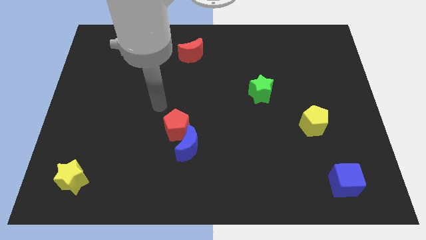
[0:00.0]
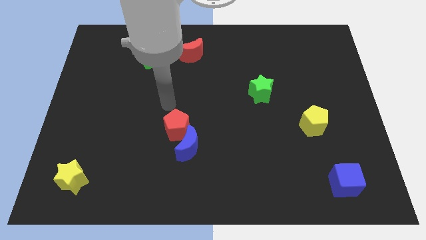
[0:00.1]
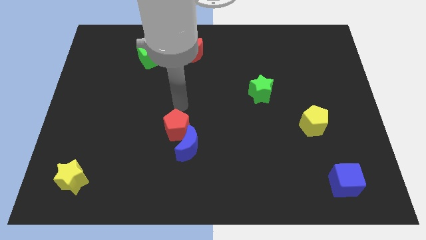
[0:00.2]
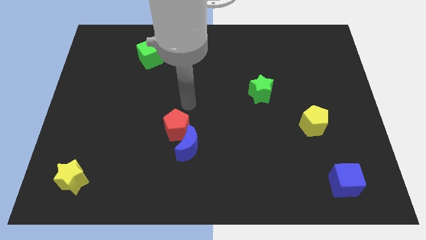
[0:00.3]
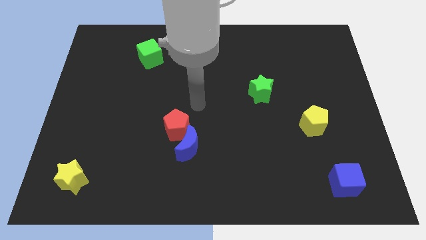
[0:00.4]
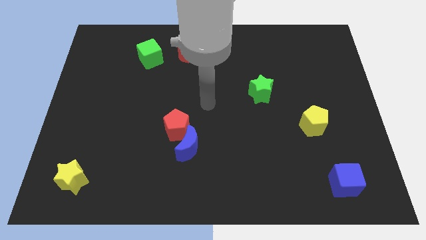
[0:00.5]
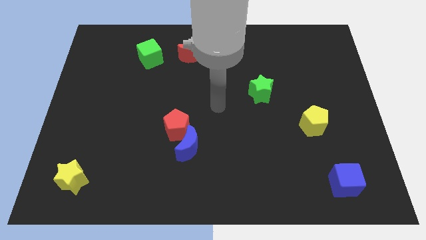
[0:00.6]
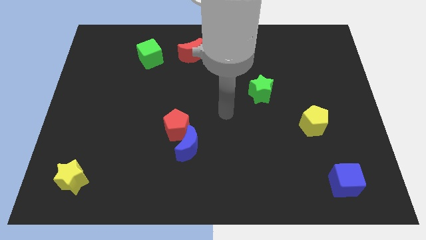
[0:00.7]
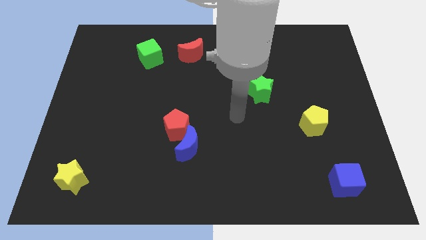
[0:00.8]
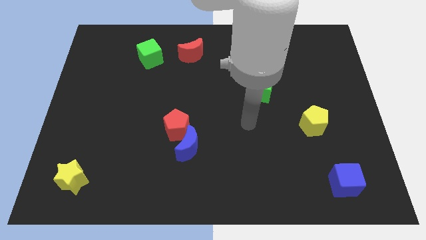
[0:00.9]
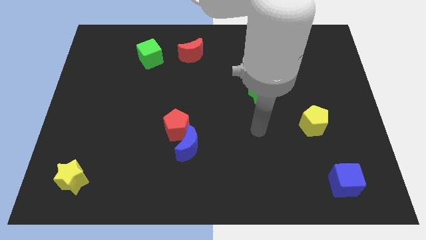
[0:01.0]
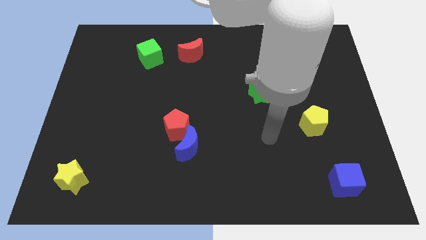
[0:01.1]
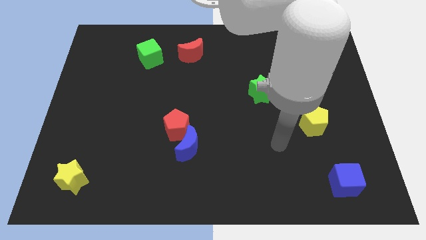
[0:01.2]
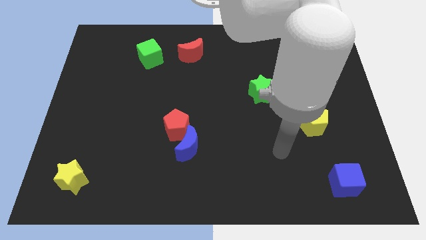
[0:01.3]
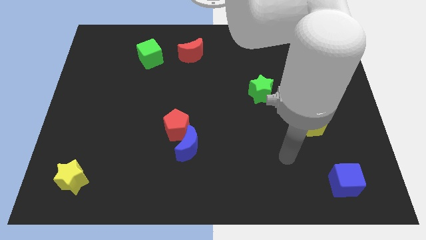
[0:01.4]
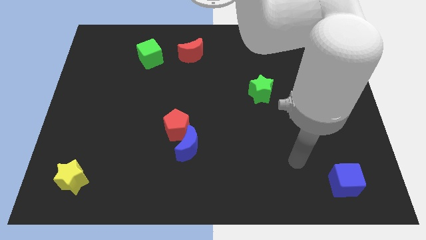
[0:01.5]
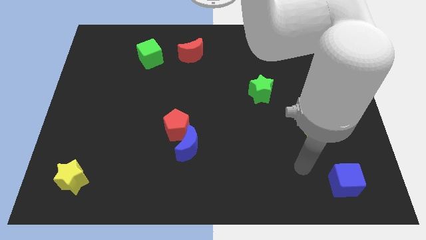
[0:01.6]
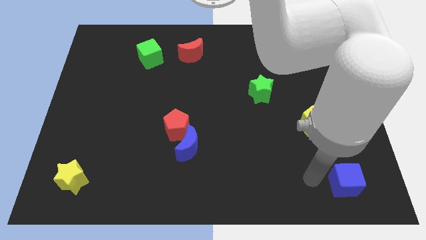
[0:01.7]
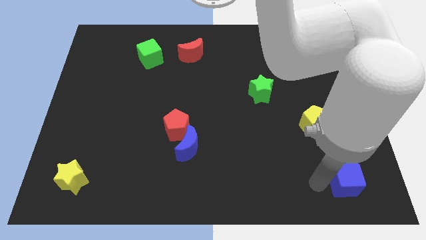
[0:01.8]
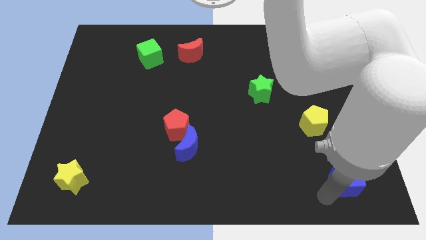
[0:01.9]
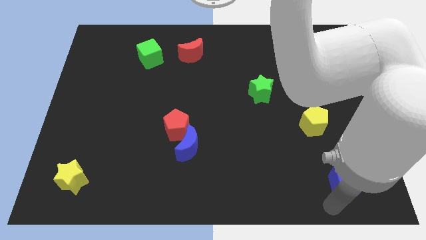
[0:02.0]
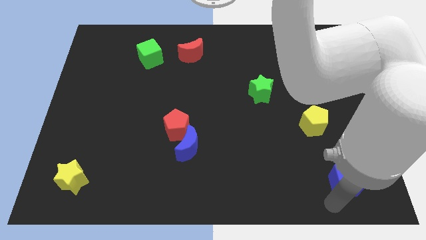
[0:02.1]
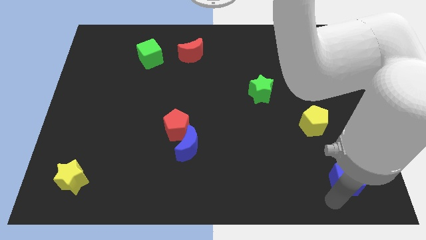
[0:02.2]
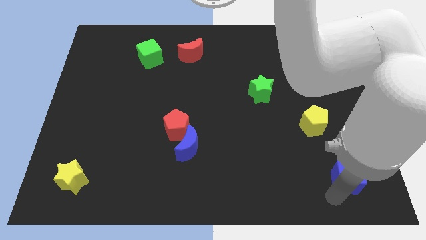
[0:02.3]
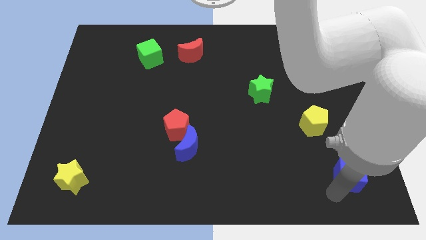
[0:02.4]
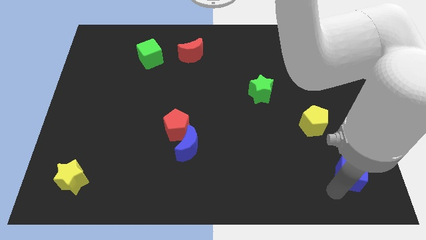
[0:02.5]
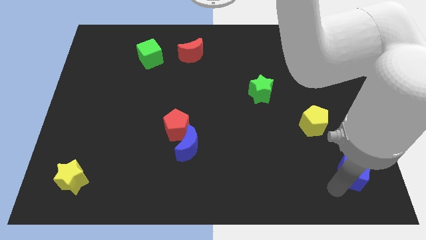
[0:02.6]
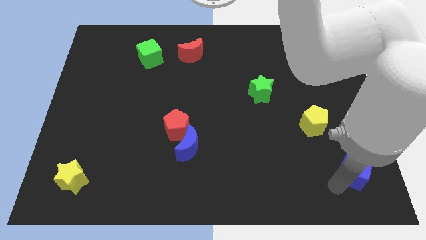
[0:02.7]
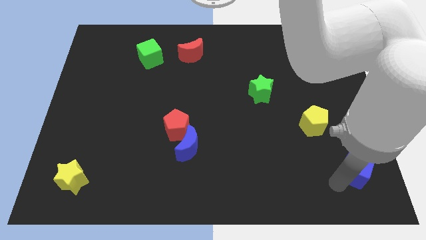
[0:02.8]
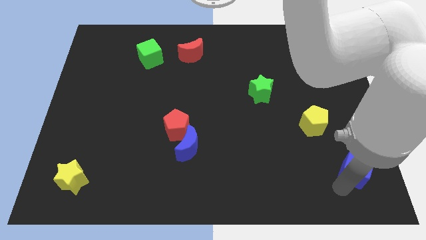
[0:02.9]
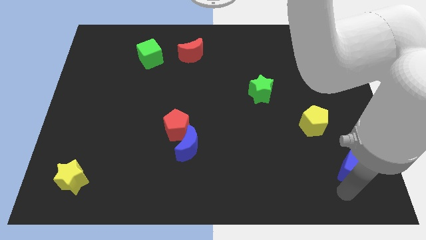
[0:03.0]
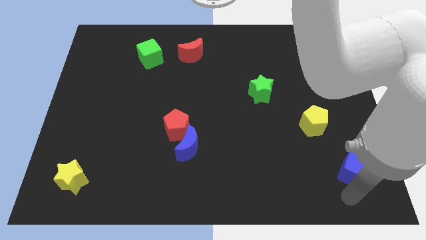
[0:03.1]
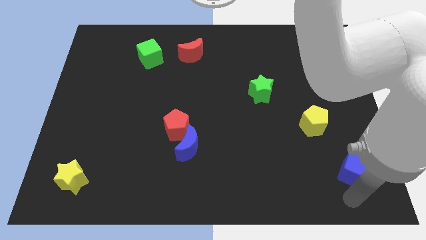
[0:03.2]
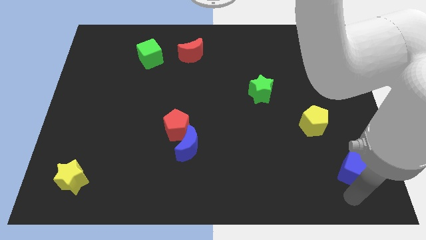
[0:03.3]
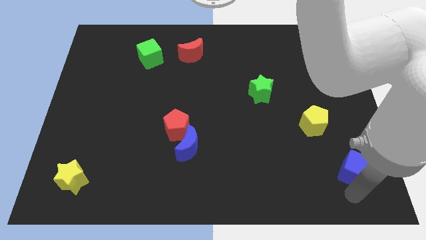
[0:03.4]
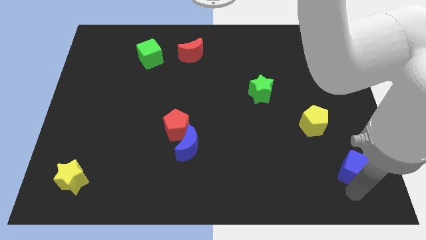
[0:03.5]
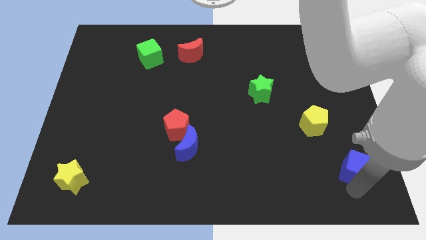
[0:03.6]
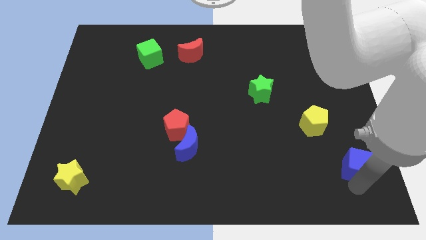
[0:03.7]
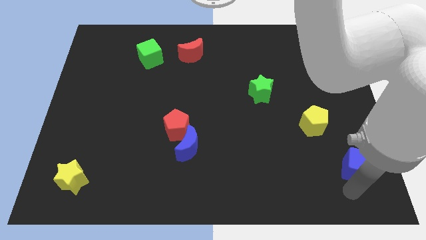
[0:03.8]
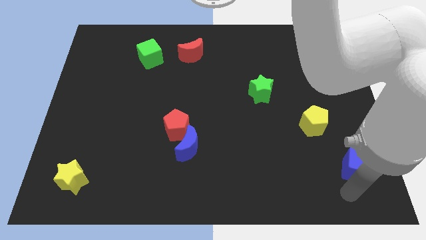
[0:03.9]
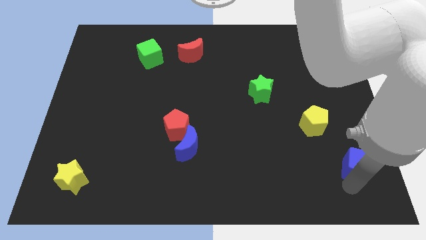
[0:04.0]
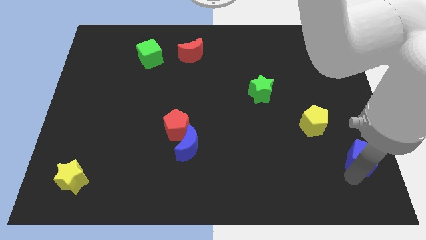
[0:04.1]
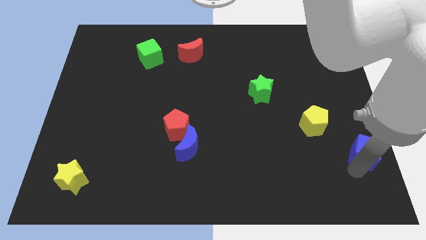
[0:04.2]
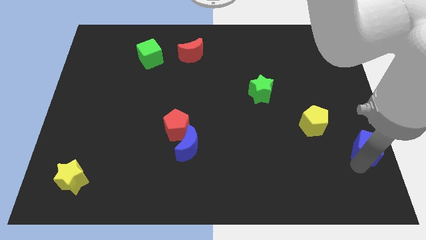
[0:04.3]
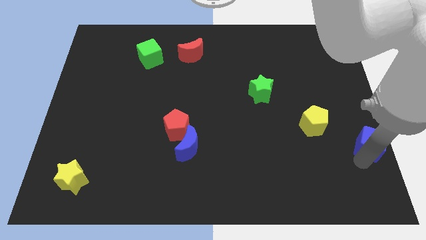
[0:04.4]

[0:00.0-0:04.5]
move the blue cube to the right side of the board

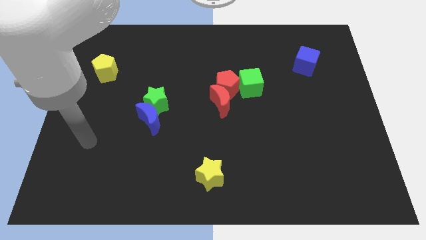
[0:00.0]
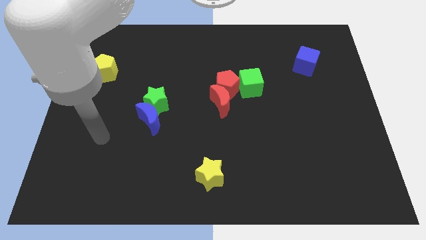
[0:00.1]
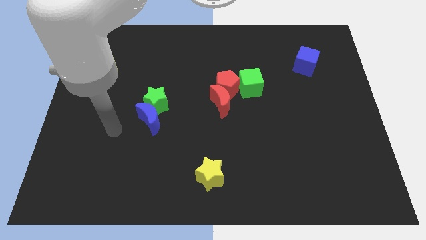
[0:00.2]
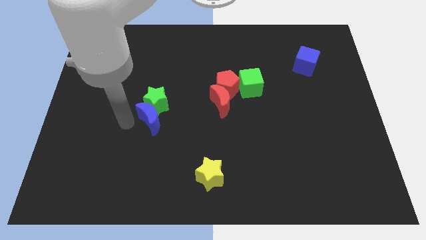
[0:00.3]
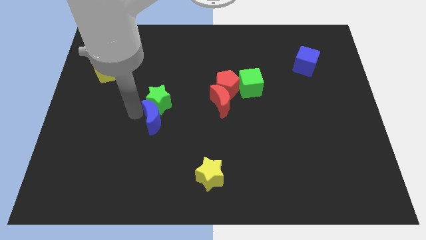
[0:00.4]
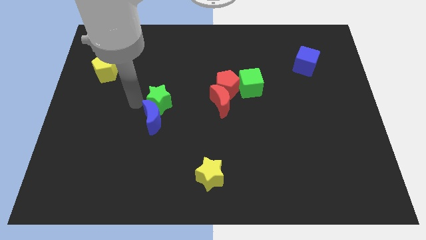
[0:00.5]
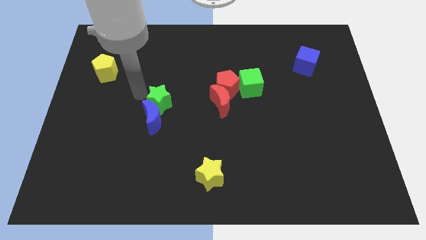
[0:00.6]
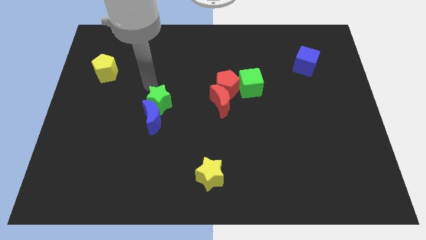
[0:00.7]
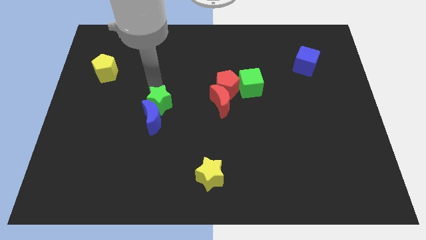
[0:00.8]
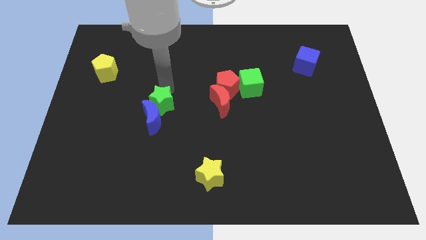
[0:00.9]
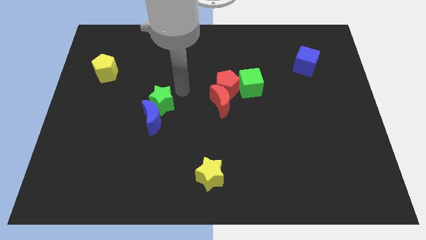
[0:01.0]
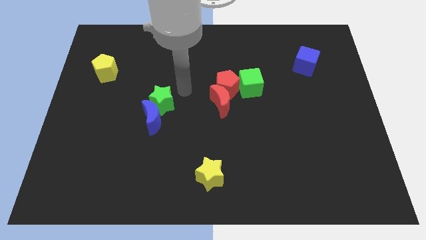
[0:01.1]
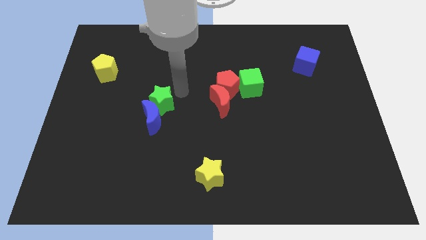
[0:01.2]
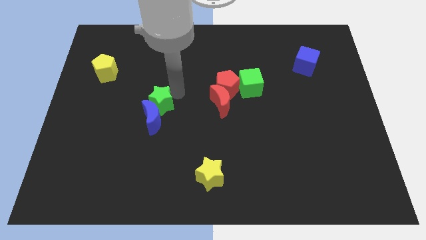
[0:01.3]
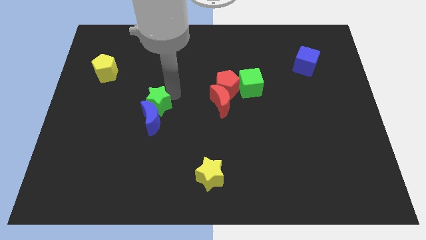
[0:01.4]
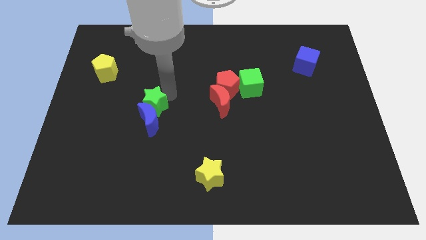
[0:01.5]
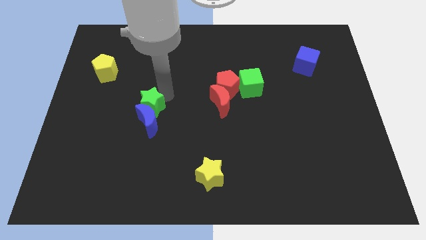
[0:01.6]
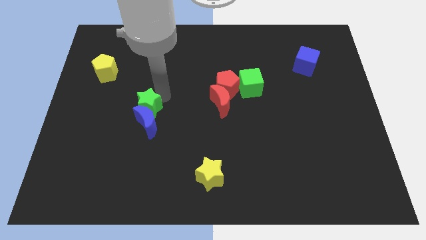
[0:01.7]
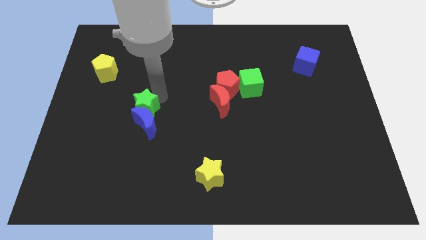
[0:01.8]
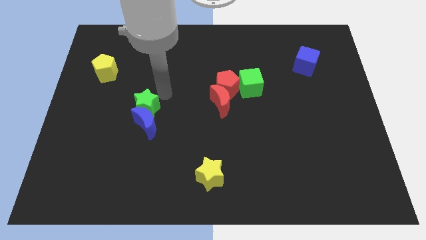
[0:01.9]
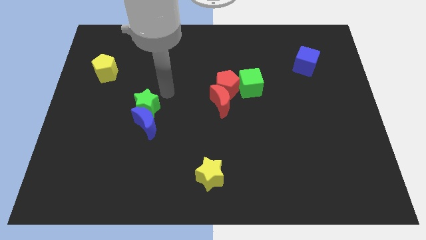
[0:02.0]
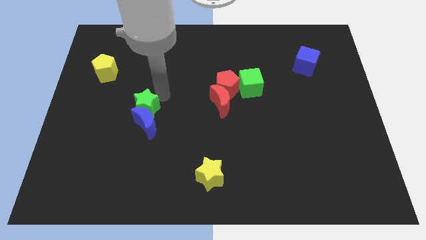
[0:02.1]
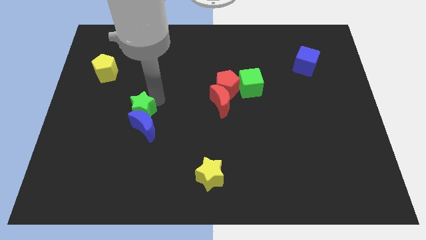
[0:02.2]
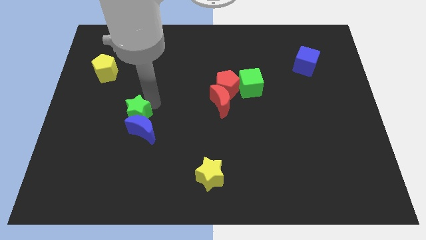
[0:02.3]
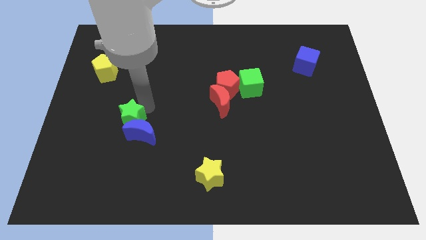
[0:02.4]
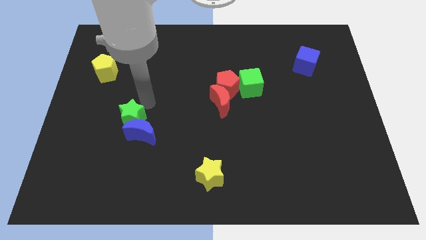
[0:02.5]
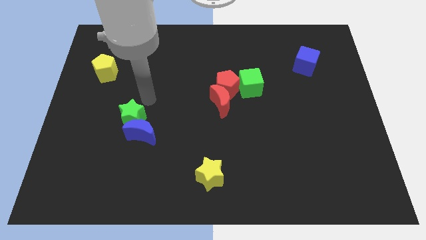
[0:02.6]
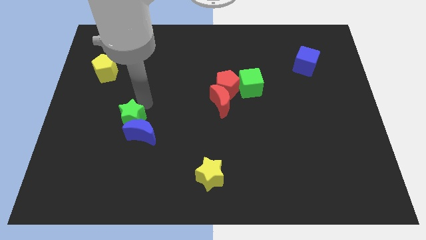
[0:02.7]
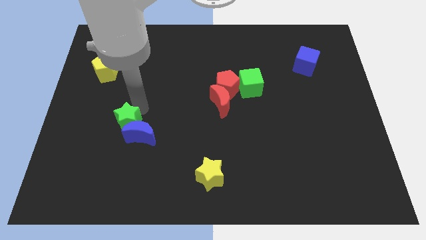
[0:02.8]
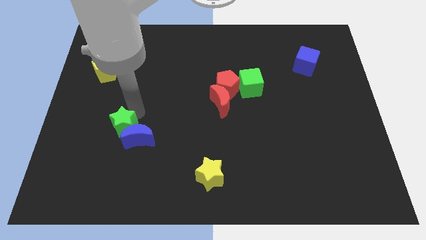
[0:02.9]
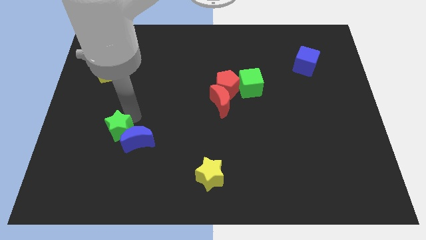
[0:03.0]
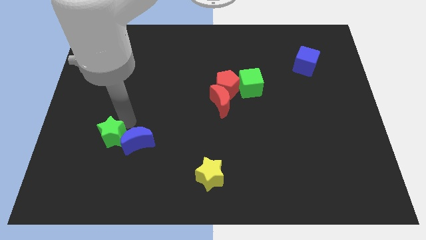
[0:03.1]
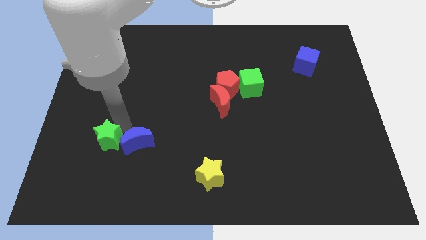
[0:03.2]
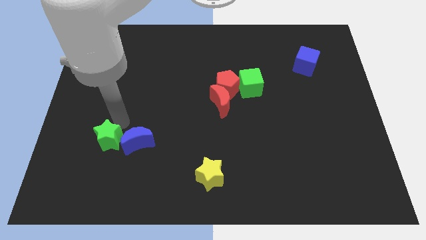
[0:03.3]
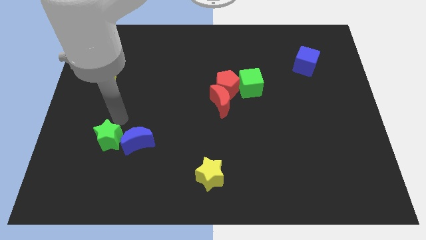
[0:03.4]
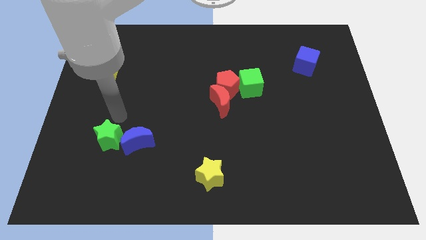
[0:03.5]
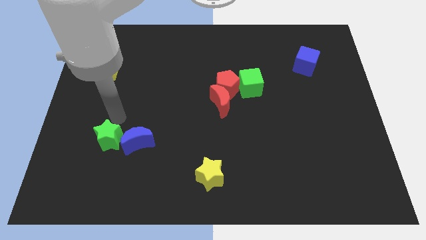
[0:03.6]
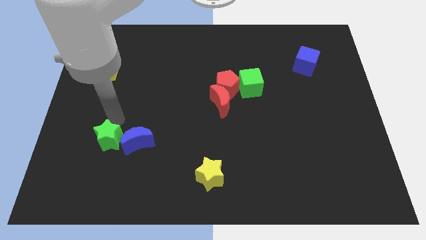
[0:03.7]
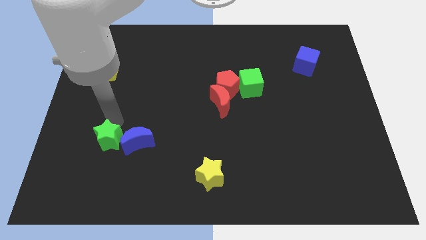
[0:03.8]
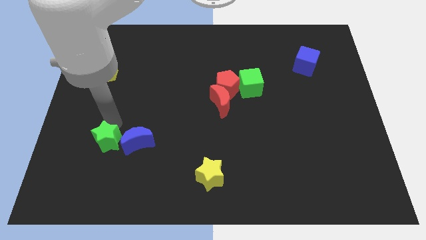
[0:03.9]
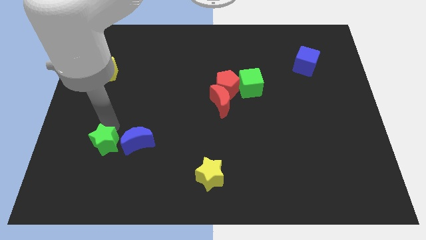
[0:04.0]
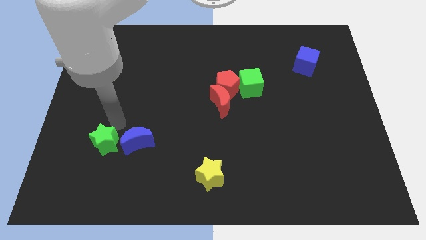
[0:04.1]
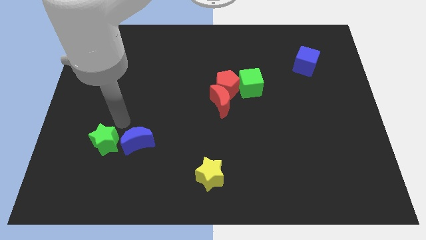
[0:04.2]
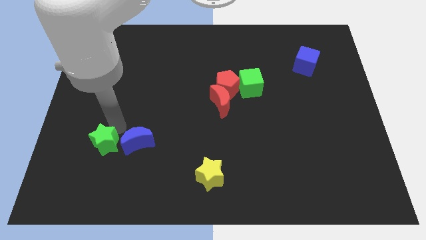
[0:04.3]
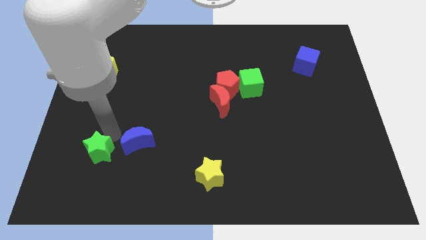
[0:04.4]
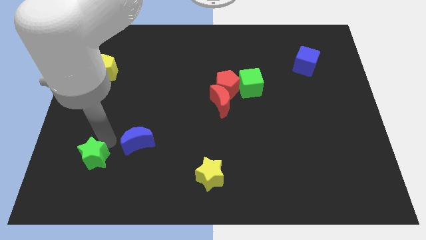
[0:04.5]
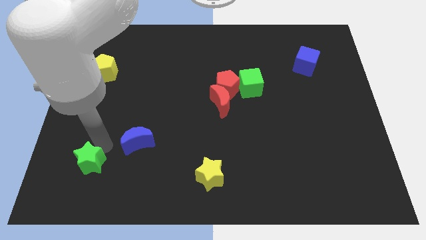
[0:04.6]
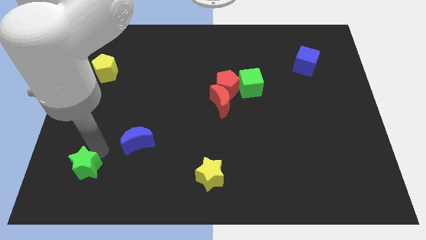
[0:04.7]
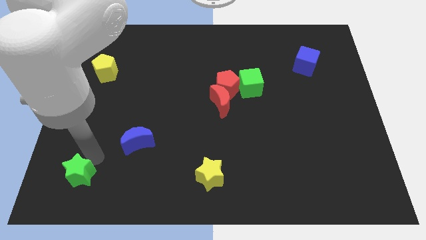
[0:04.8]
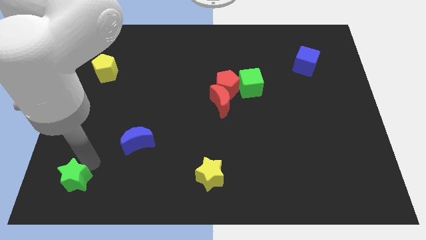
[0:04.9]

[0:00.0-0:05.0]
slide the green star to the bottom left of the board
